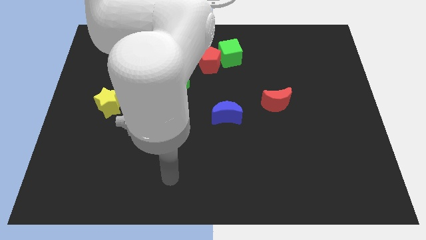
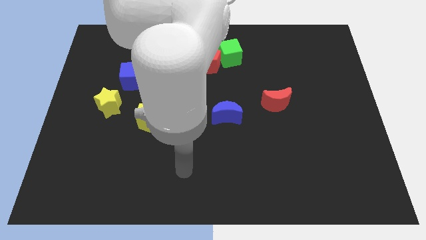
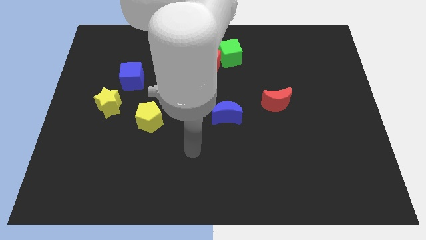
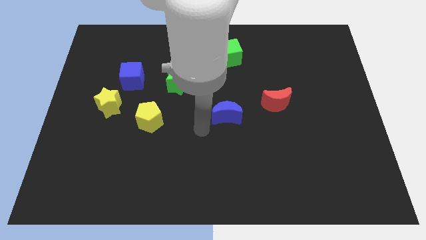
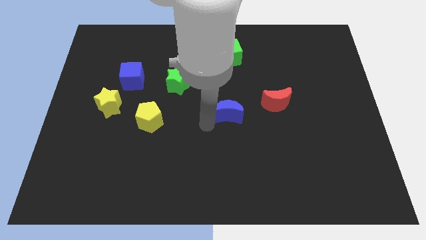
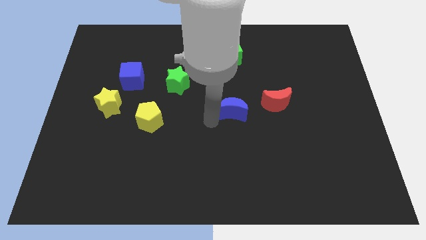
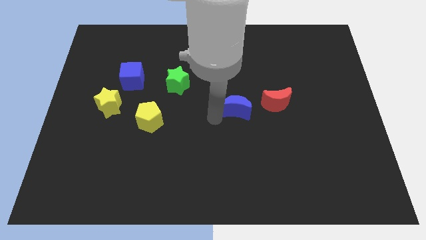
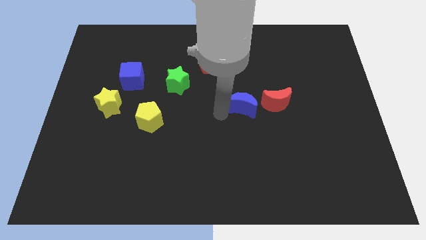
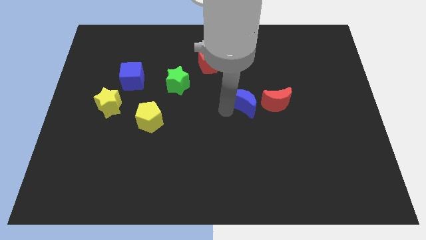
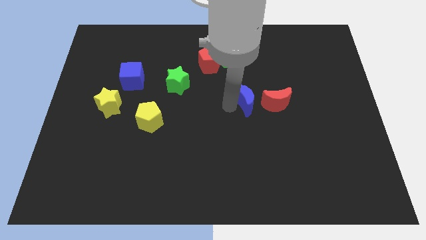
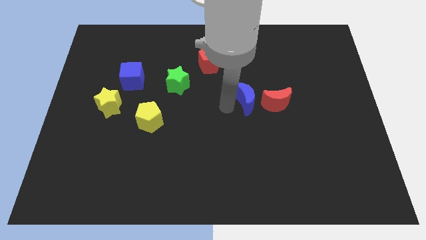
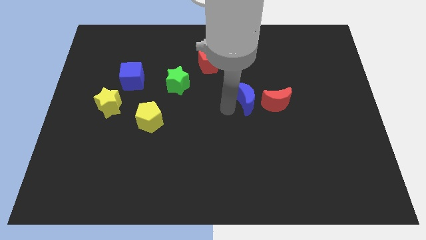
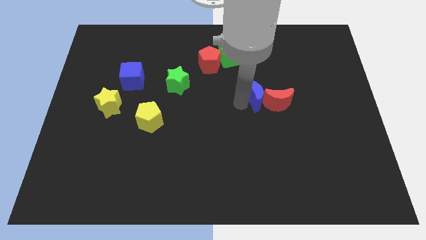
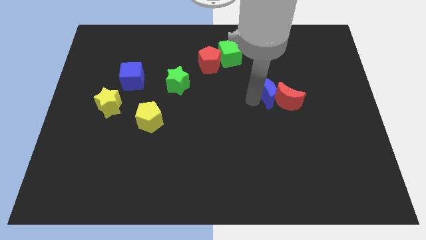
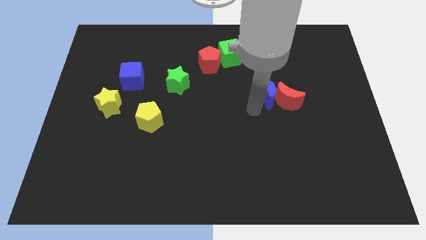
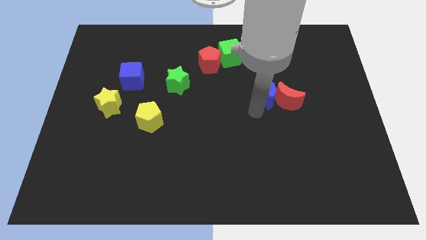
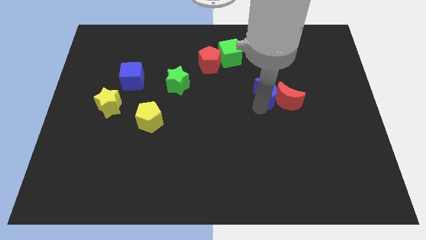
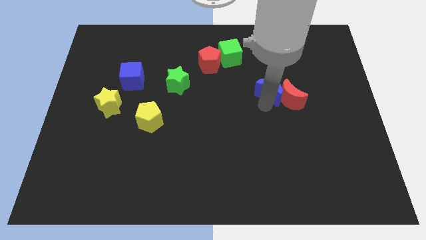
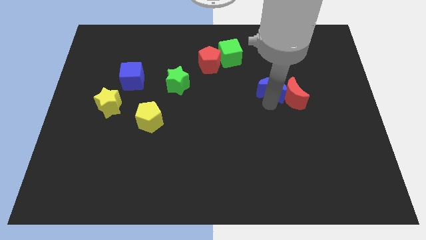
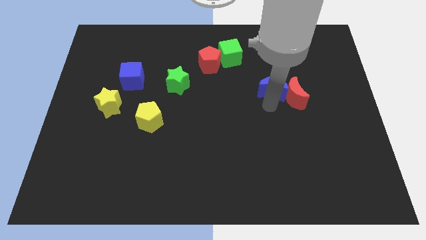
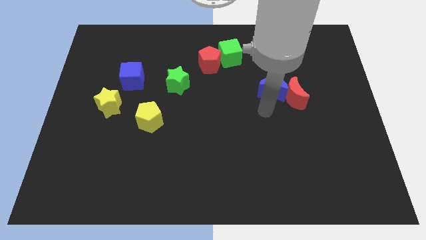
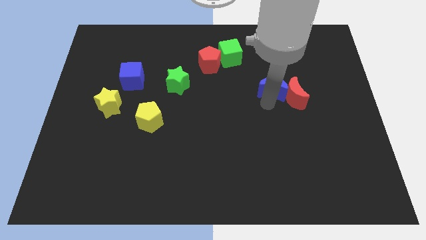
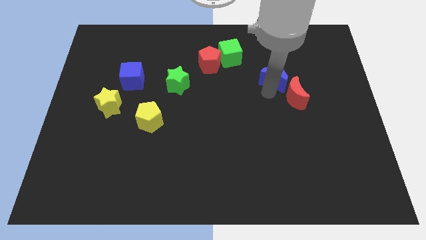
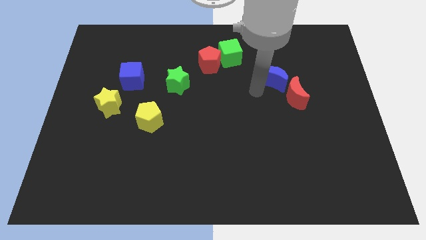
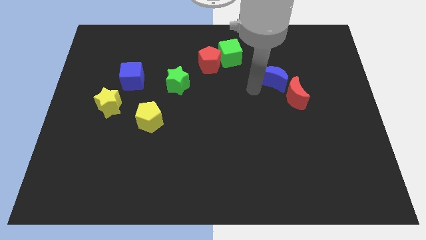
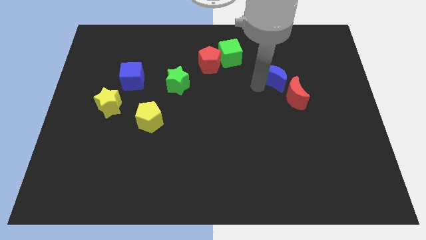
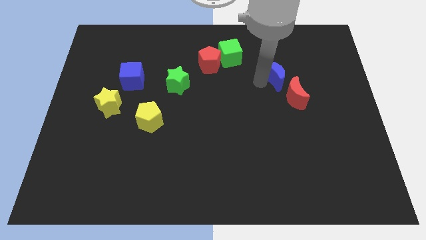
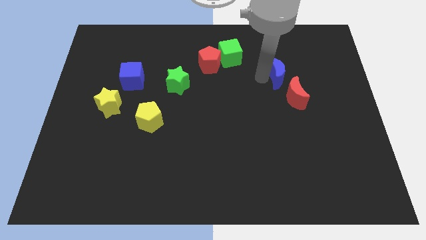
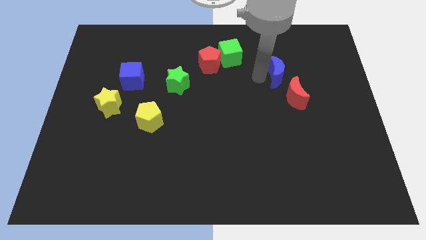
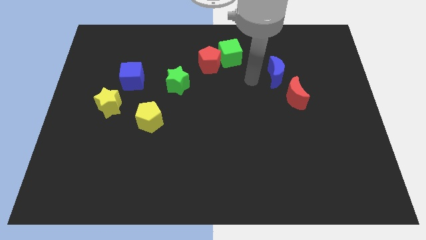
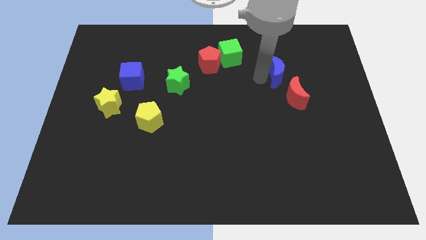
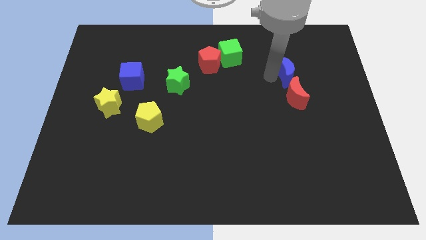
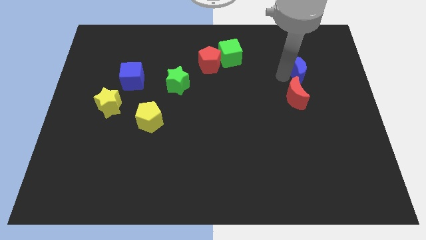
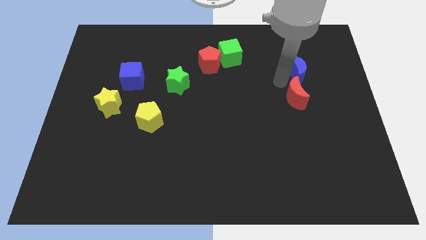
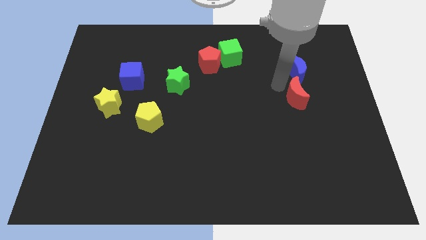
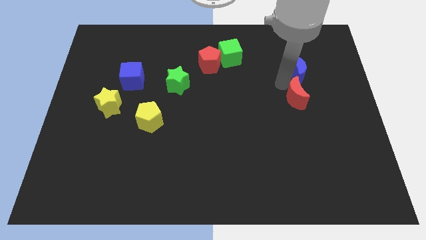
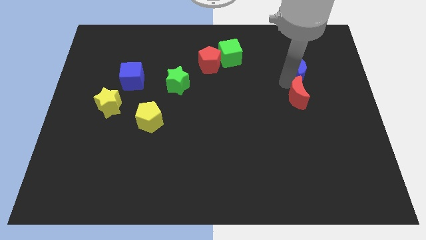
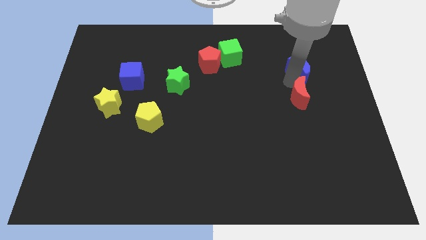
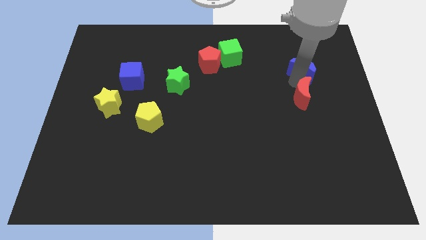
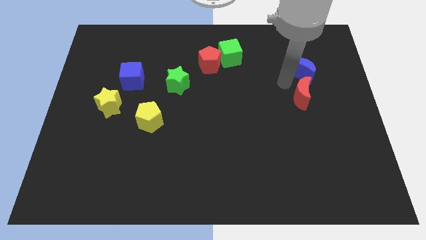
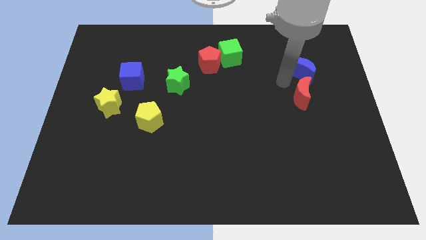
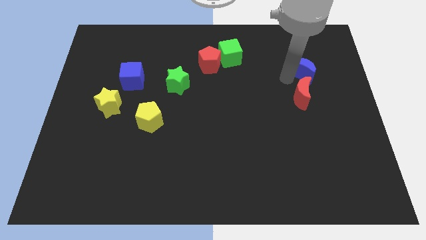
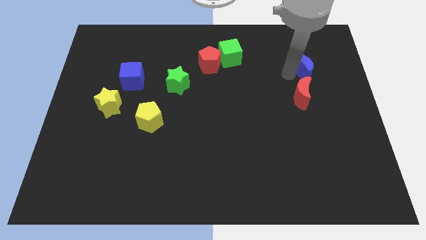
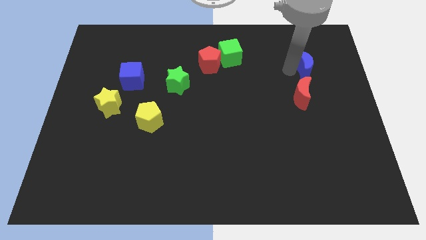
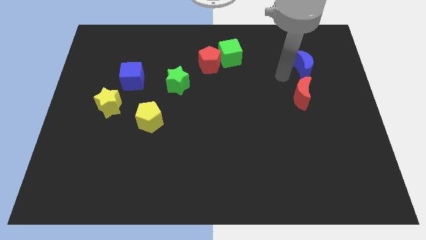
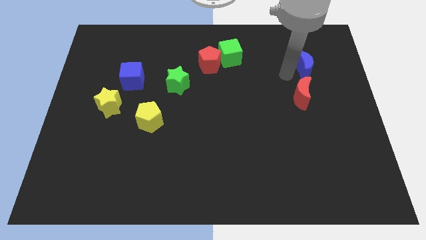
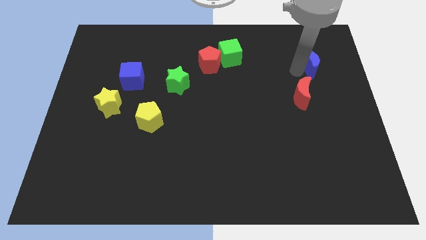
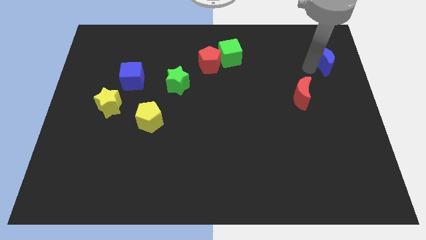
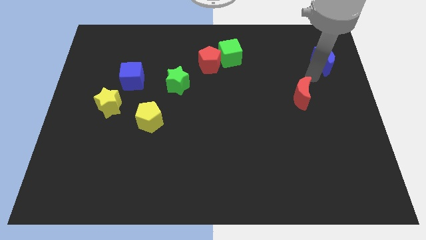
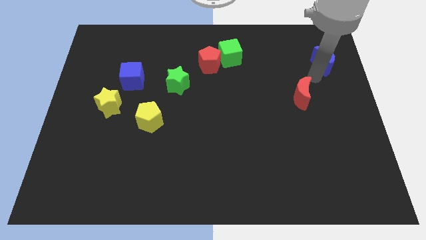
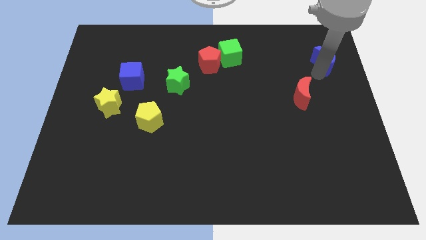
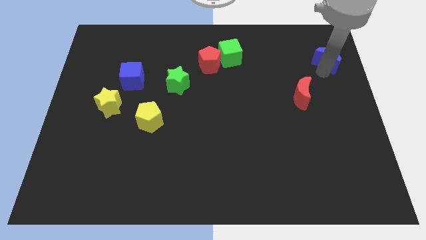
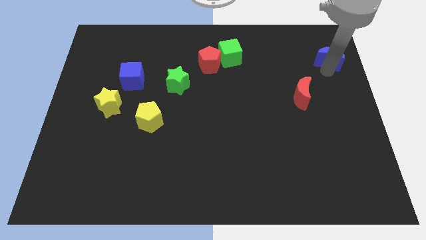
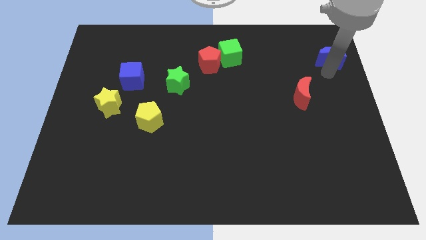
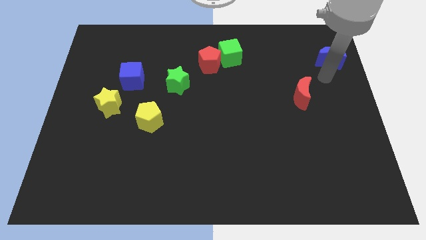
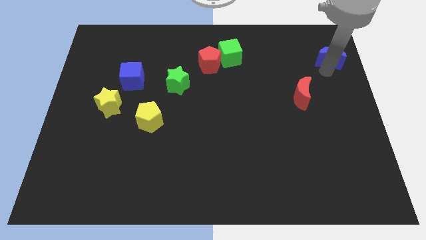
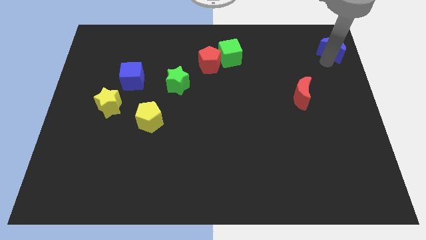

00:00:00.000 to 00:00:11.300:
slide the blue moon to the top right

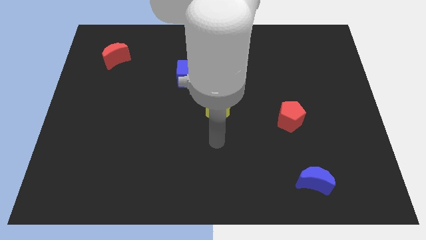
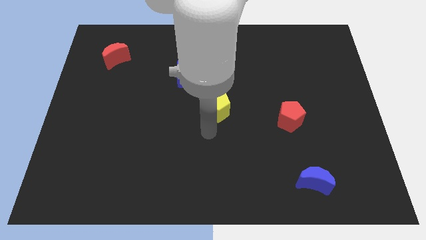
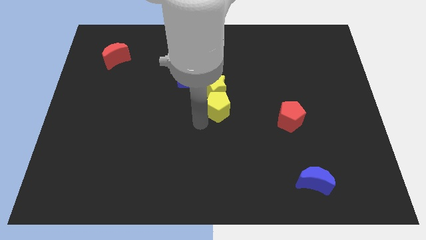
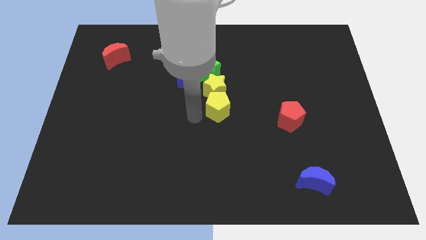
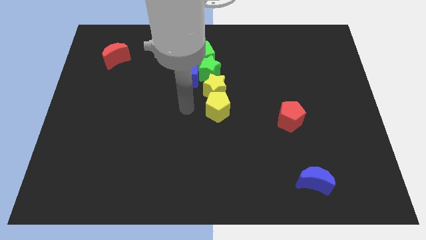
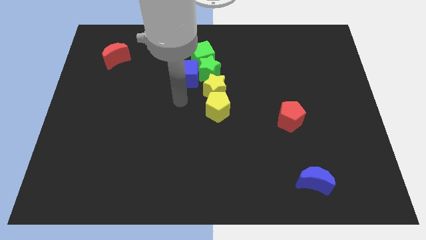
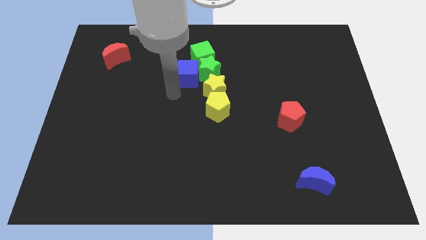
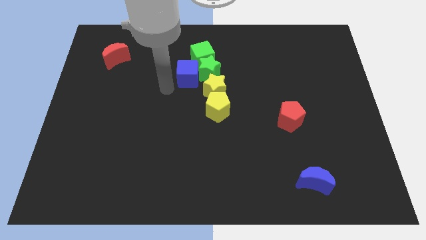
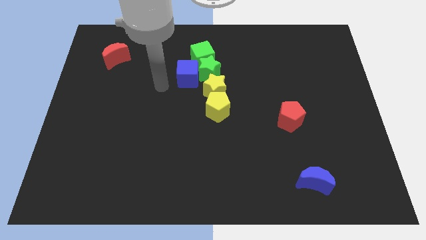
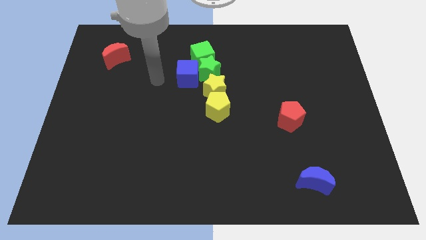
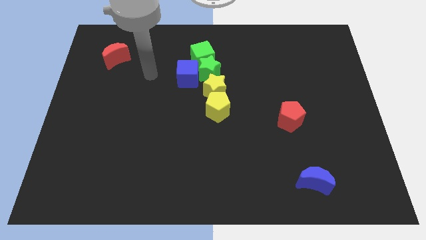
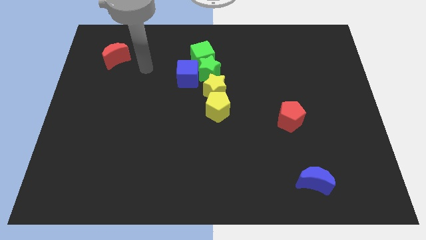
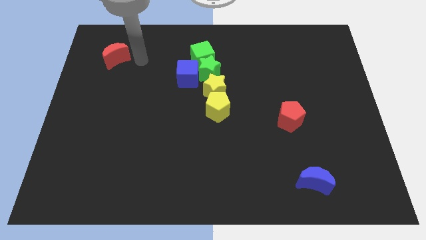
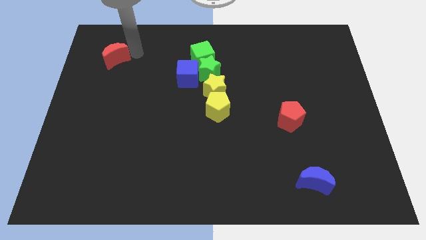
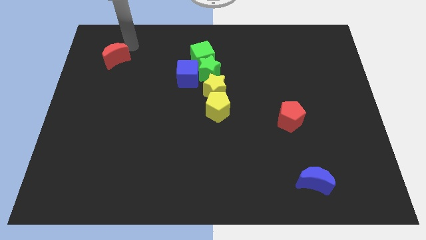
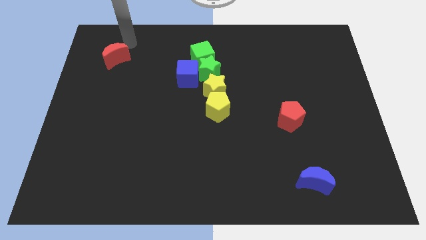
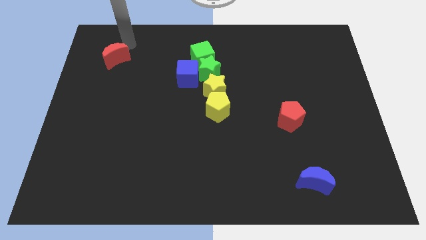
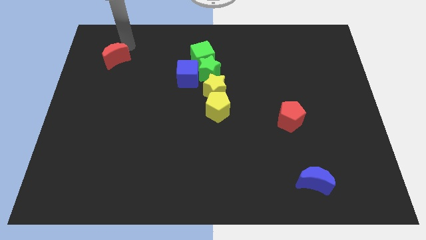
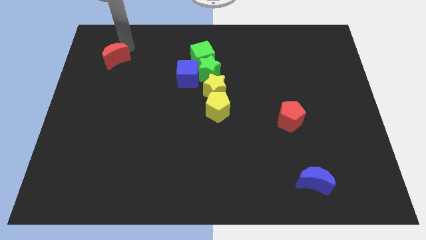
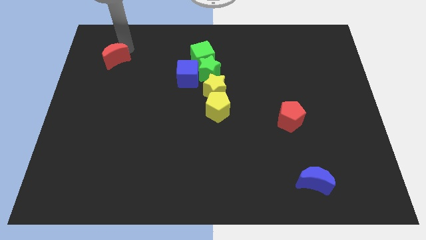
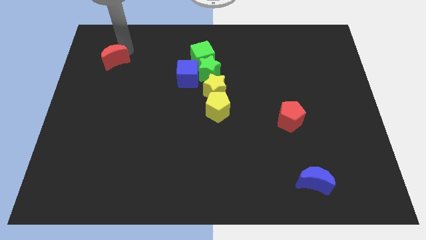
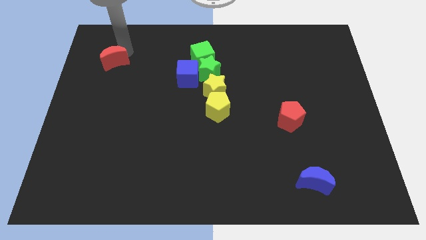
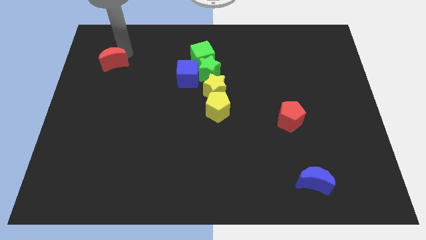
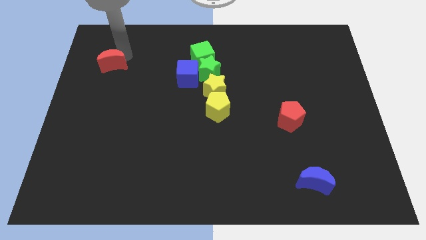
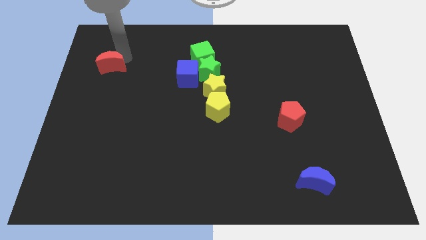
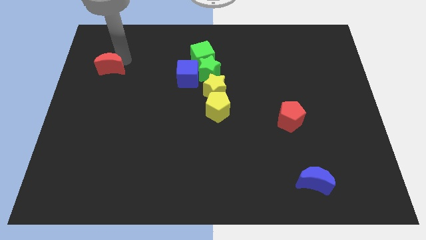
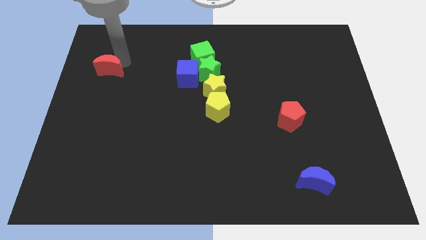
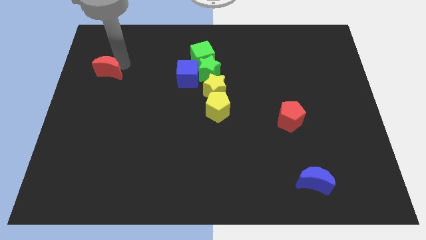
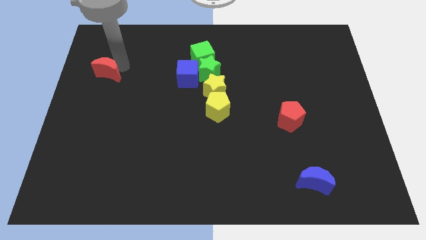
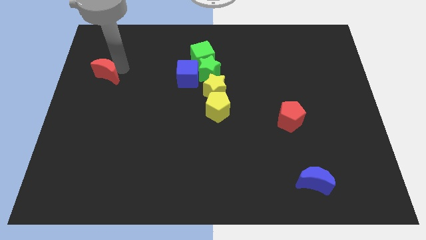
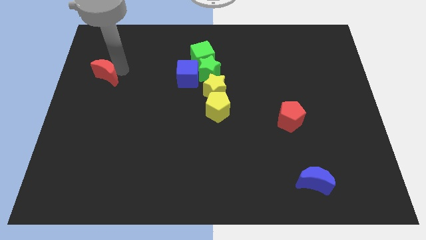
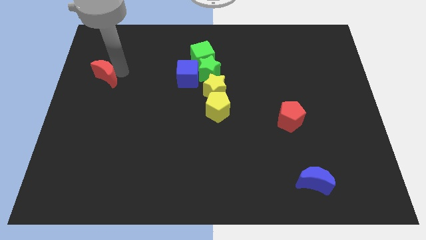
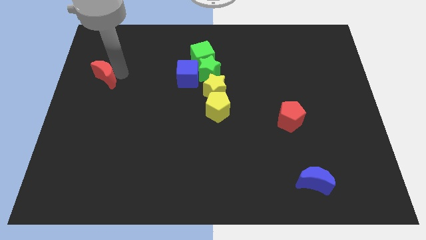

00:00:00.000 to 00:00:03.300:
move the red moon to the center left
